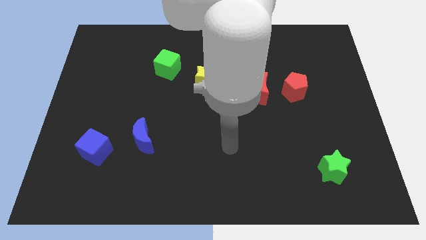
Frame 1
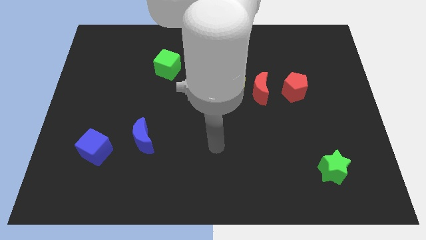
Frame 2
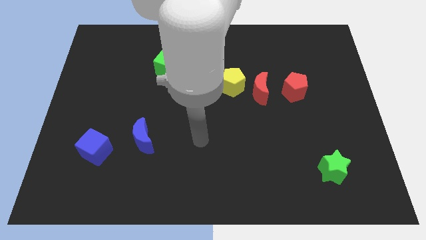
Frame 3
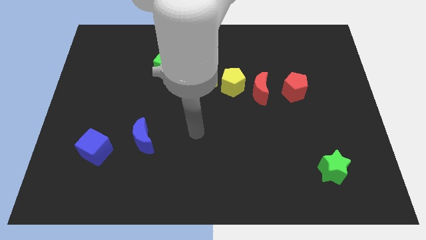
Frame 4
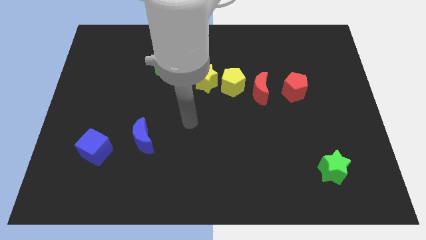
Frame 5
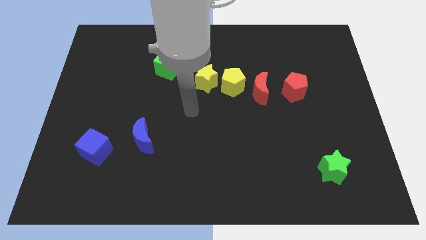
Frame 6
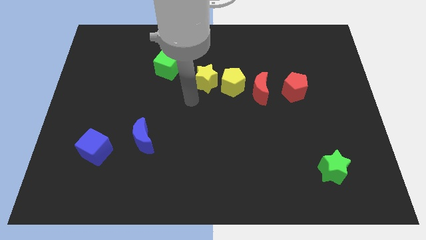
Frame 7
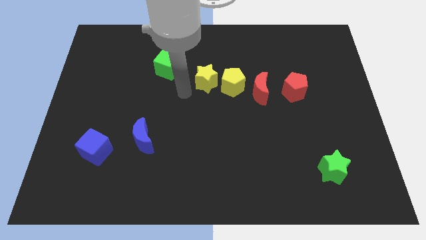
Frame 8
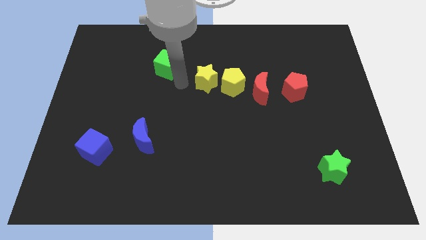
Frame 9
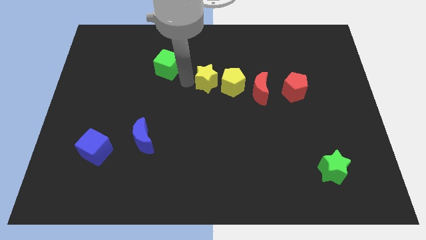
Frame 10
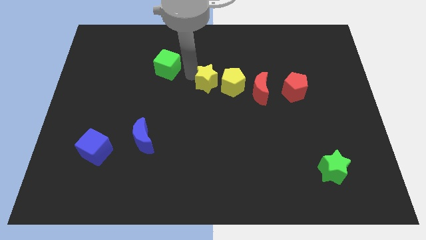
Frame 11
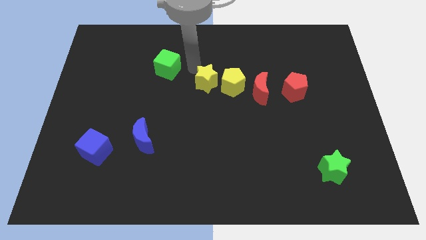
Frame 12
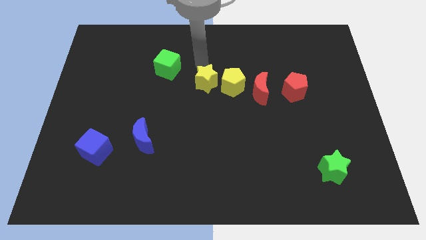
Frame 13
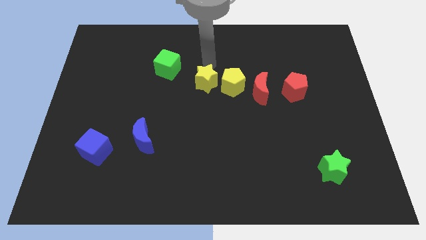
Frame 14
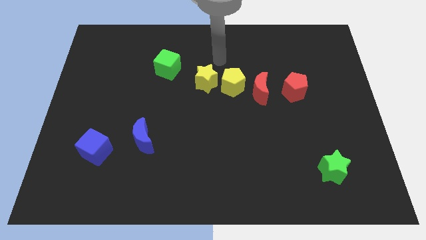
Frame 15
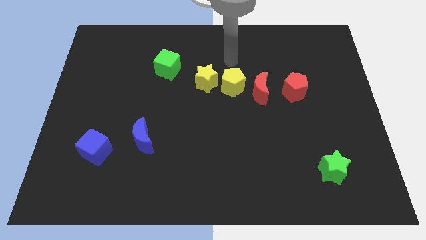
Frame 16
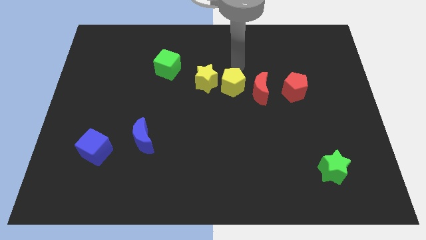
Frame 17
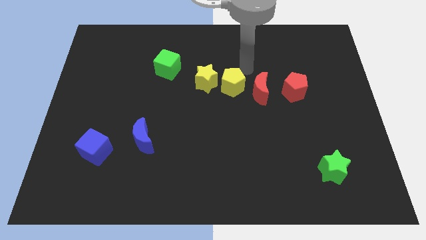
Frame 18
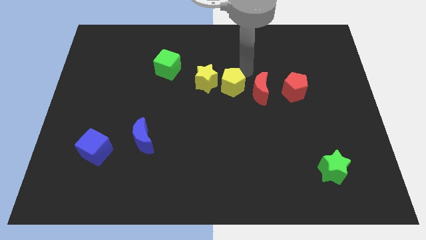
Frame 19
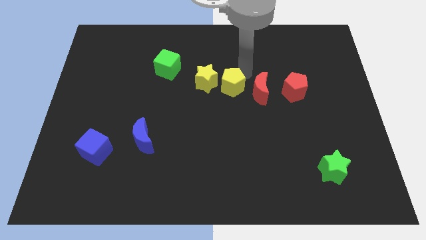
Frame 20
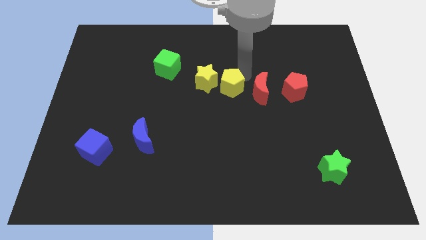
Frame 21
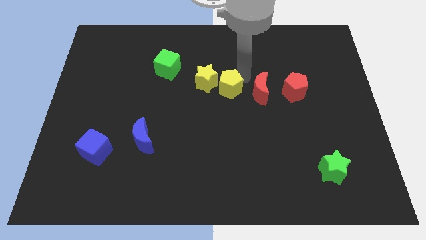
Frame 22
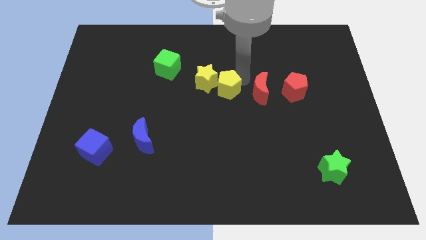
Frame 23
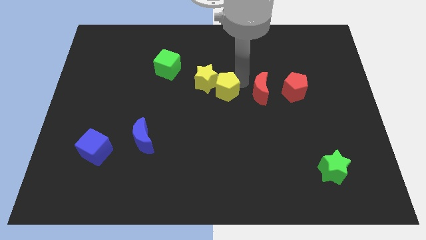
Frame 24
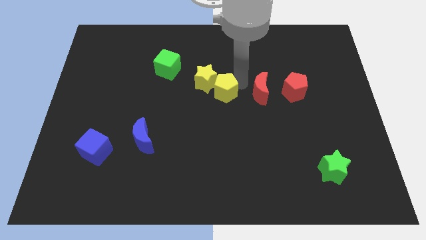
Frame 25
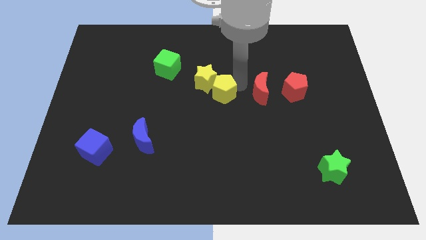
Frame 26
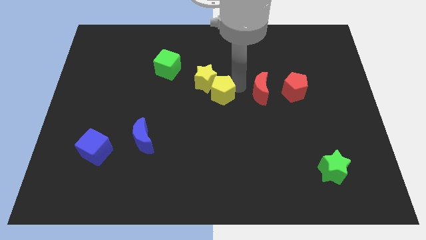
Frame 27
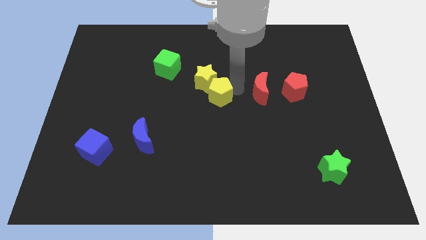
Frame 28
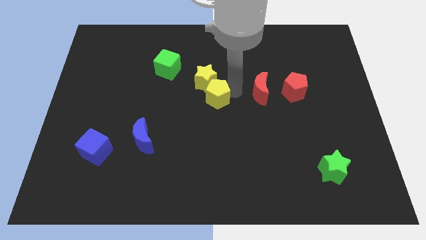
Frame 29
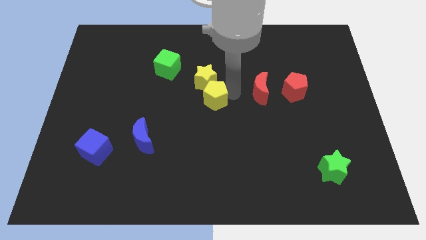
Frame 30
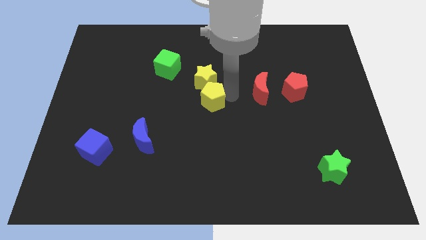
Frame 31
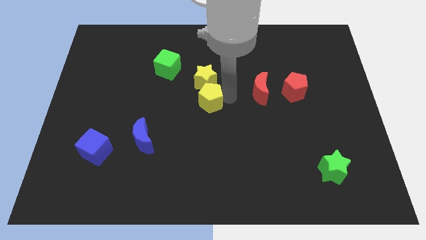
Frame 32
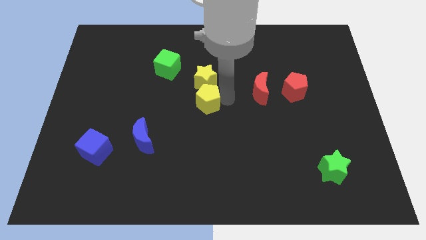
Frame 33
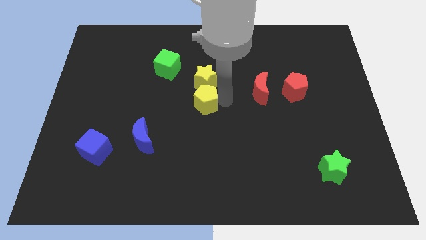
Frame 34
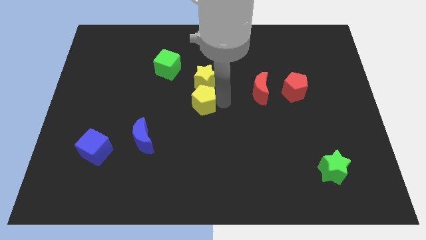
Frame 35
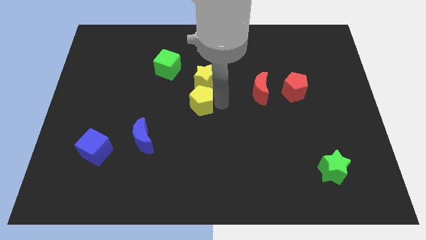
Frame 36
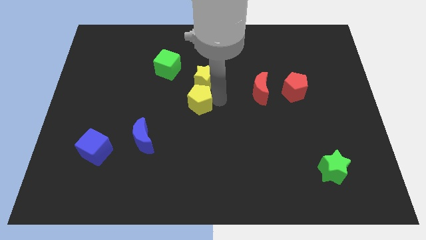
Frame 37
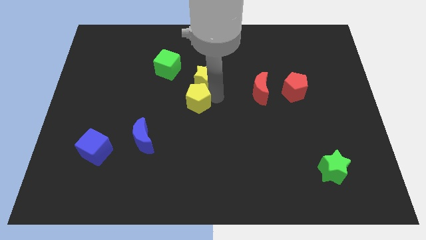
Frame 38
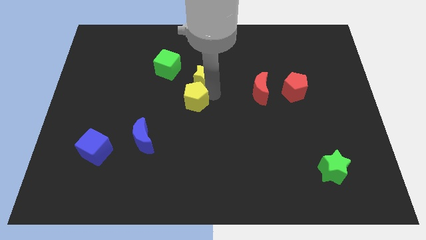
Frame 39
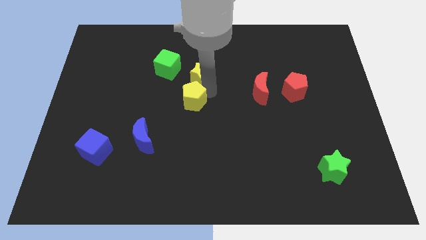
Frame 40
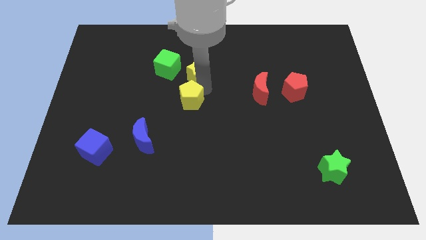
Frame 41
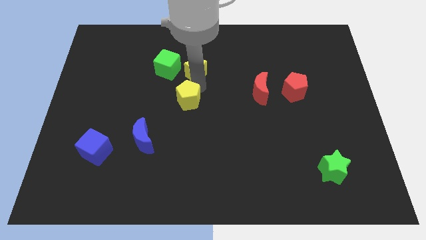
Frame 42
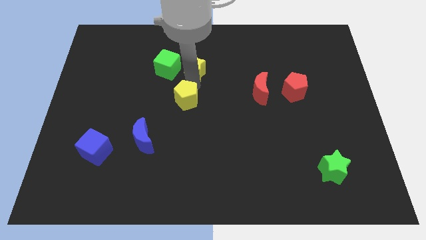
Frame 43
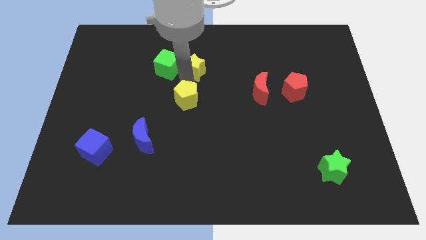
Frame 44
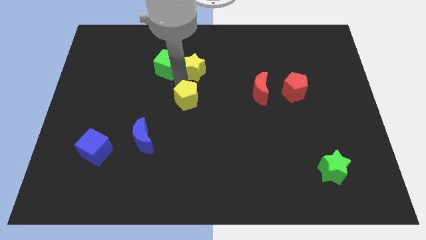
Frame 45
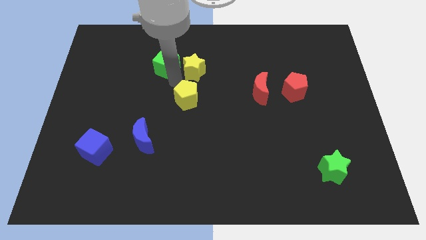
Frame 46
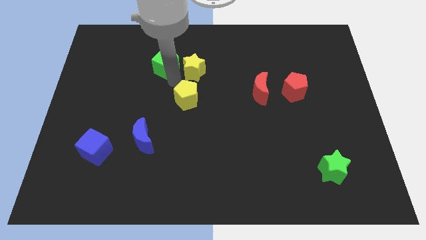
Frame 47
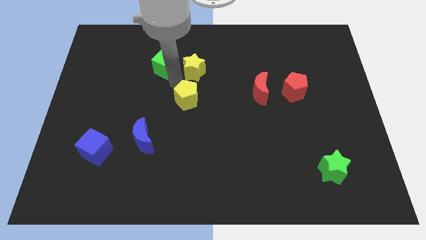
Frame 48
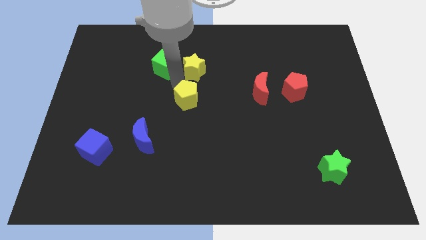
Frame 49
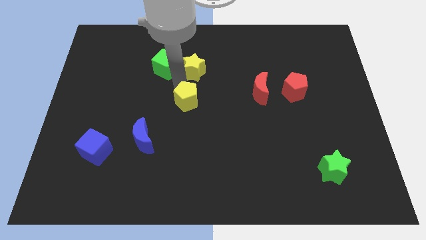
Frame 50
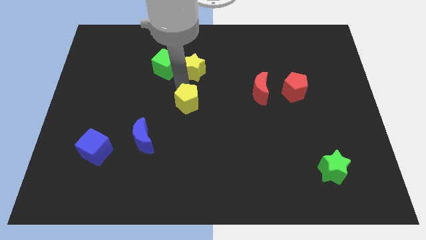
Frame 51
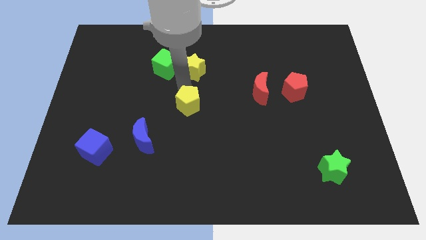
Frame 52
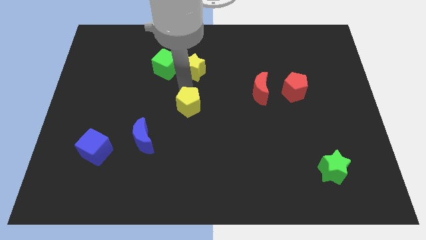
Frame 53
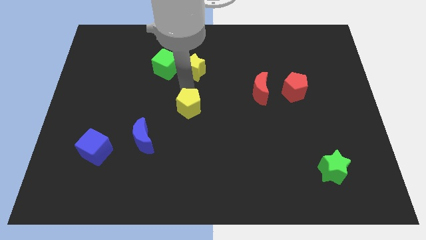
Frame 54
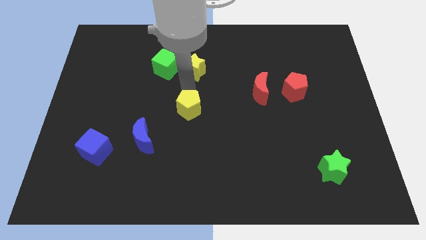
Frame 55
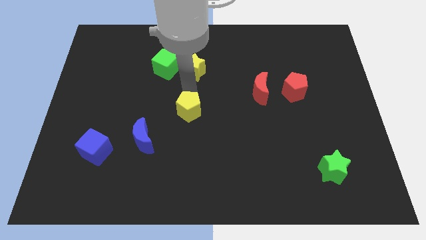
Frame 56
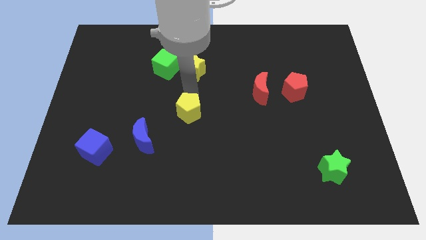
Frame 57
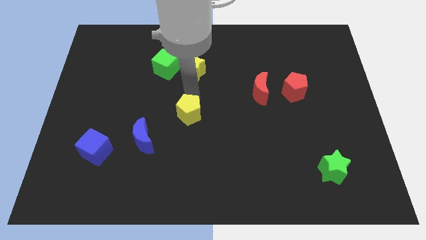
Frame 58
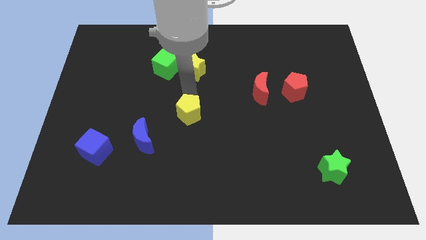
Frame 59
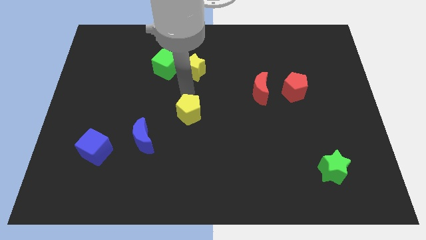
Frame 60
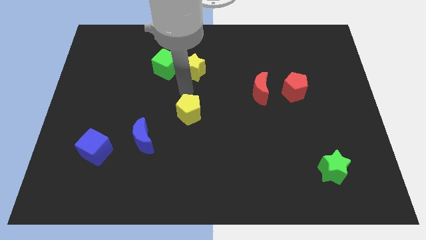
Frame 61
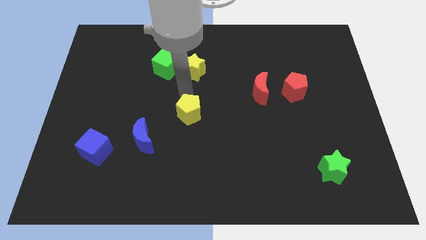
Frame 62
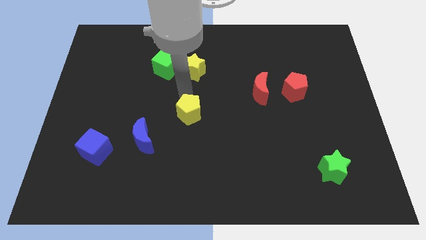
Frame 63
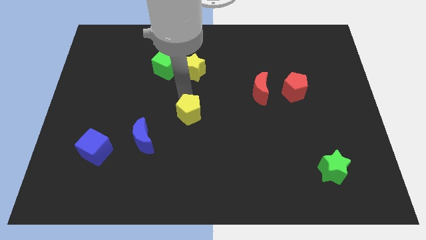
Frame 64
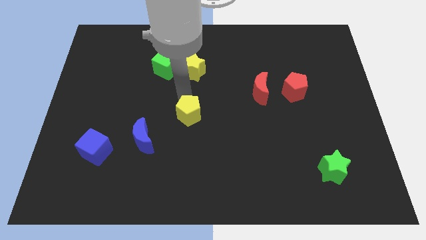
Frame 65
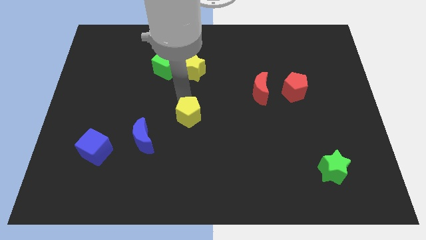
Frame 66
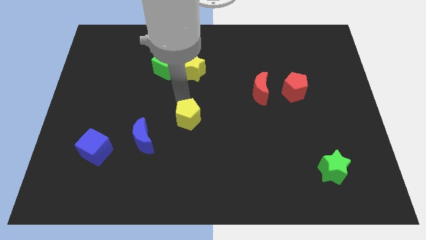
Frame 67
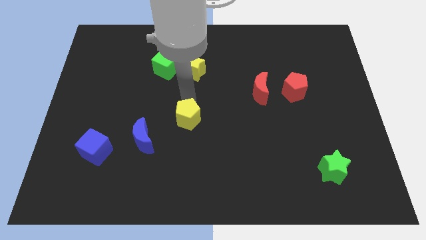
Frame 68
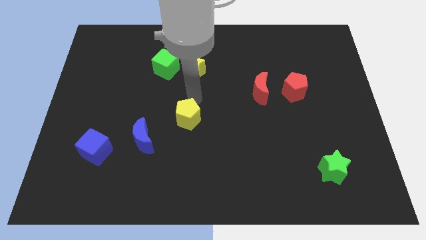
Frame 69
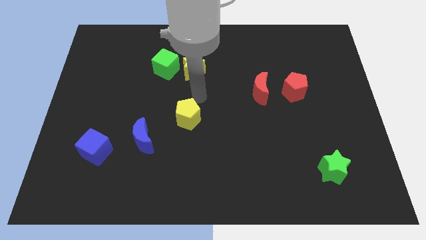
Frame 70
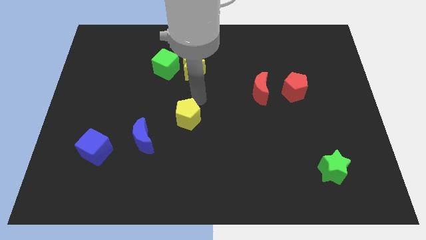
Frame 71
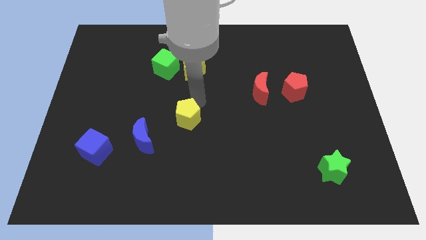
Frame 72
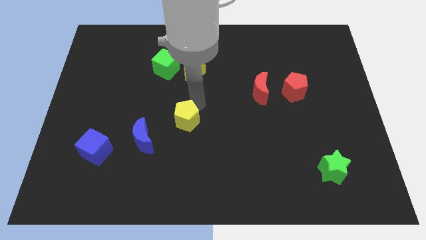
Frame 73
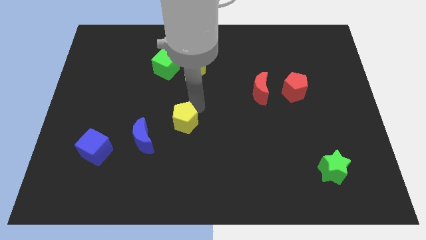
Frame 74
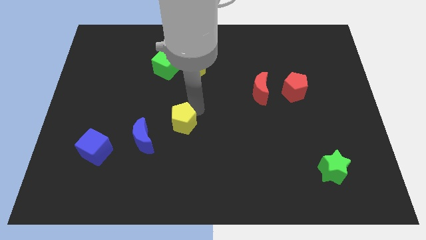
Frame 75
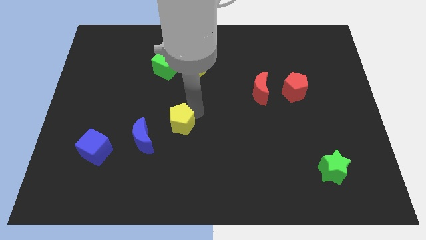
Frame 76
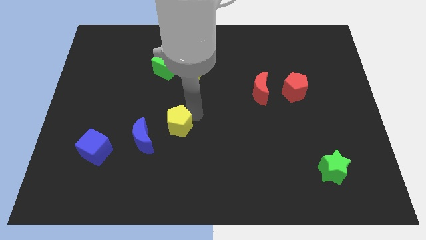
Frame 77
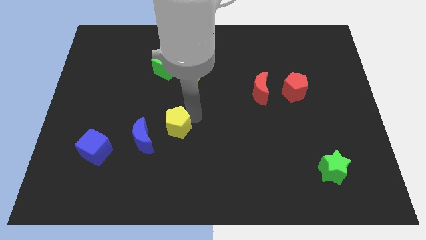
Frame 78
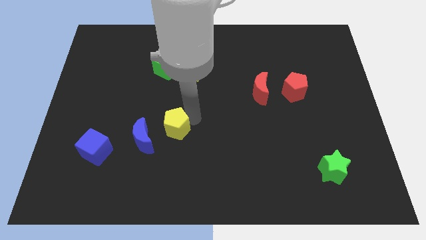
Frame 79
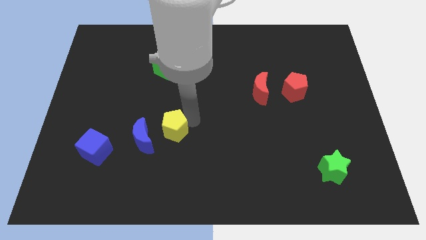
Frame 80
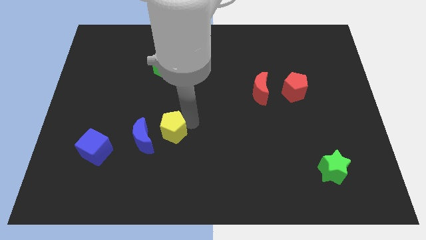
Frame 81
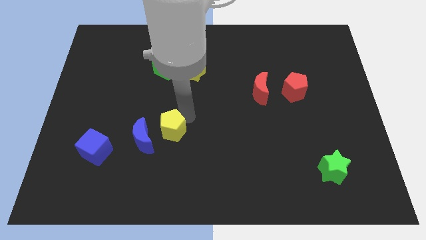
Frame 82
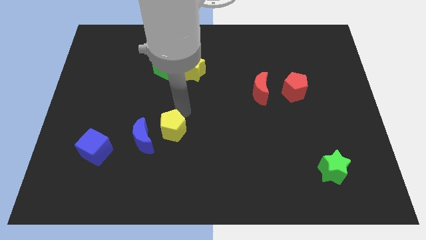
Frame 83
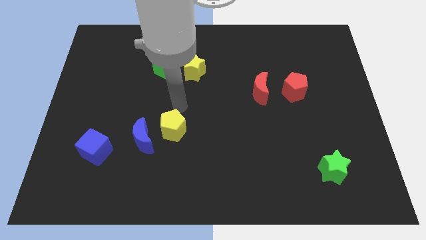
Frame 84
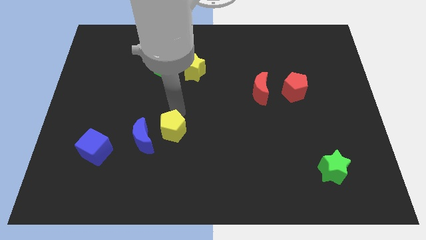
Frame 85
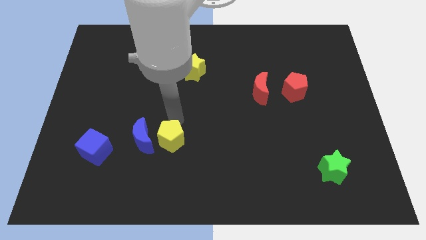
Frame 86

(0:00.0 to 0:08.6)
move the yellow pentagon diagonally down and to the right of the blue moon
